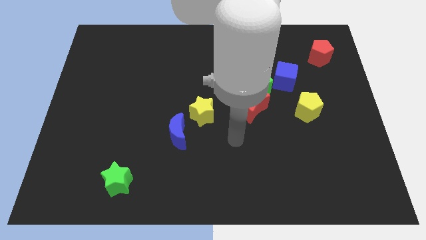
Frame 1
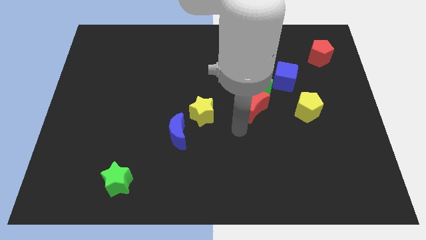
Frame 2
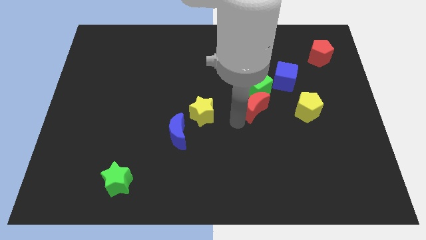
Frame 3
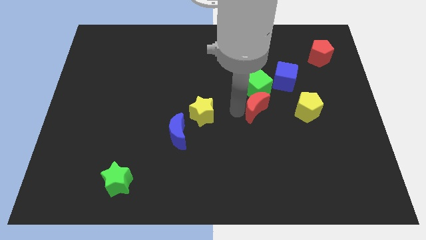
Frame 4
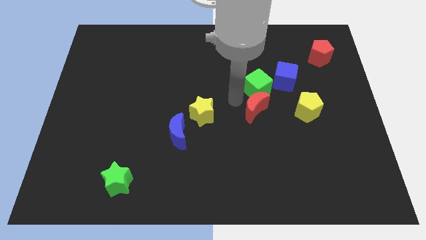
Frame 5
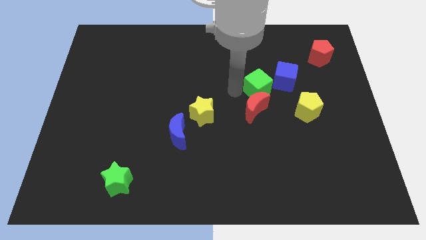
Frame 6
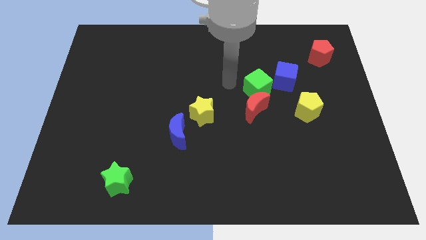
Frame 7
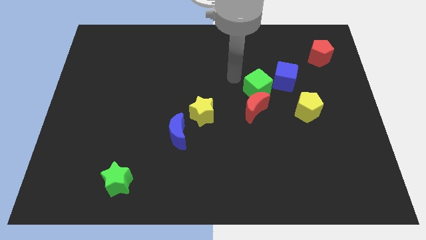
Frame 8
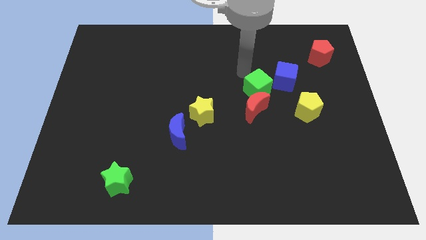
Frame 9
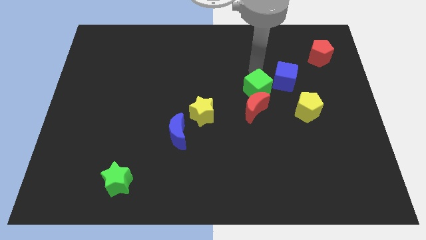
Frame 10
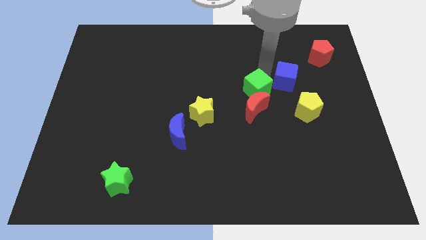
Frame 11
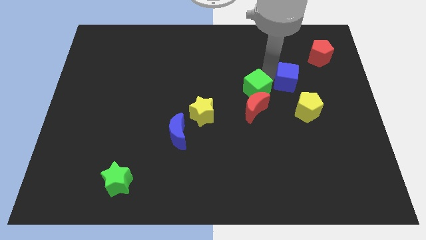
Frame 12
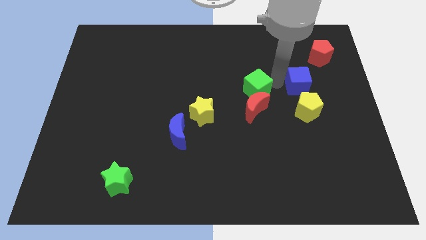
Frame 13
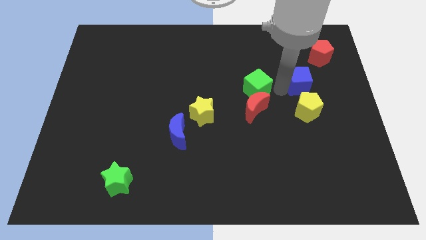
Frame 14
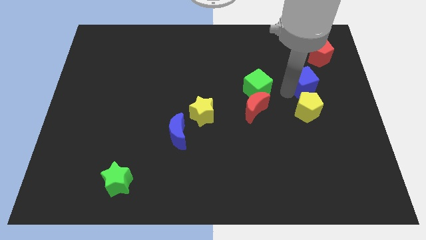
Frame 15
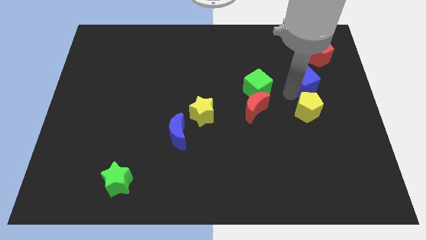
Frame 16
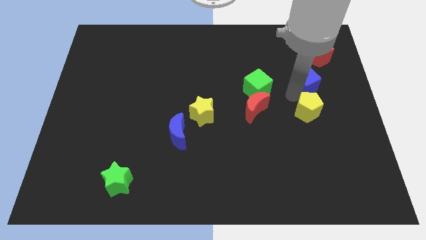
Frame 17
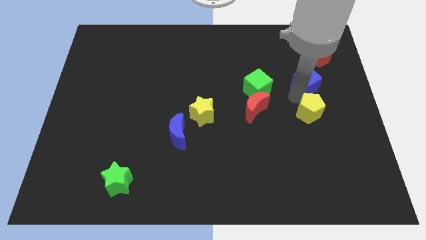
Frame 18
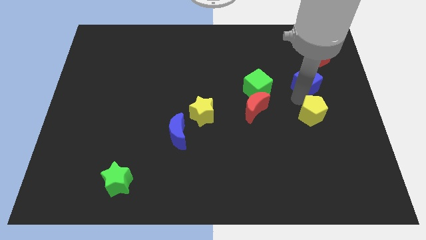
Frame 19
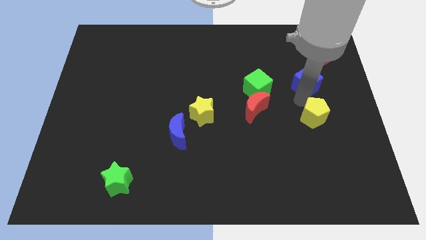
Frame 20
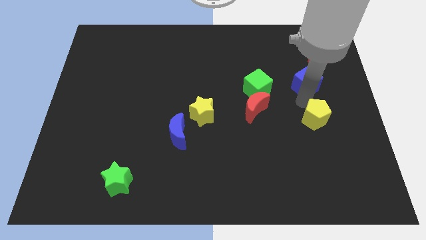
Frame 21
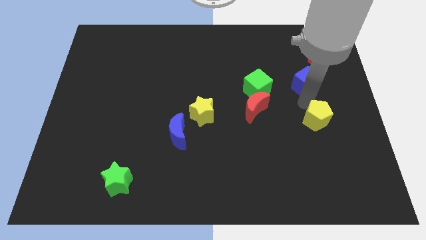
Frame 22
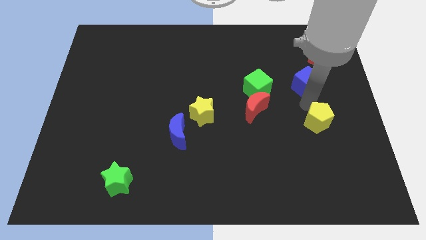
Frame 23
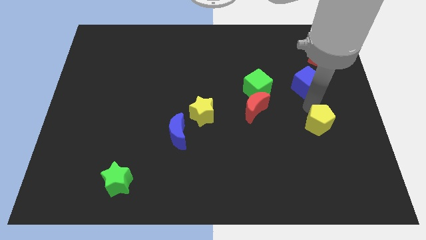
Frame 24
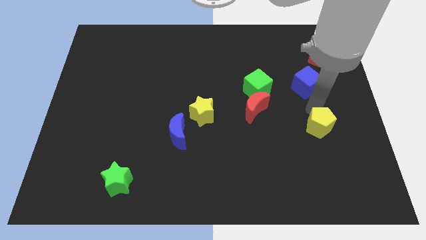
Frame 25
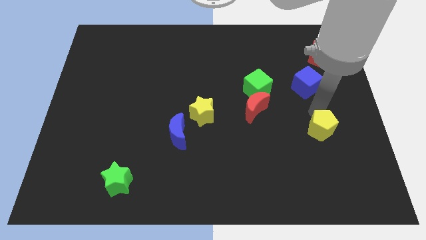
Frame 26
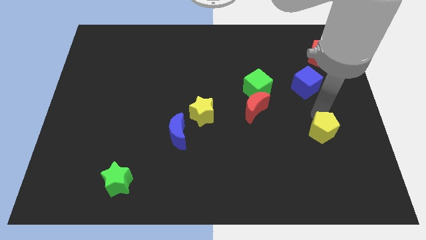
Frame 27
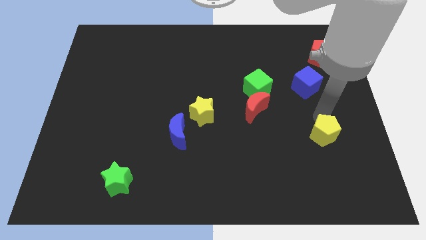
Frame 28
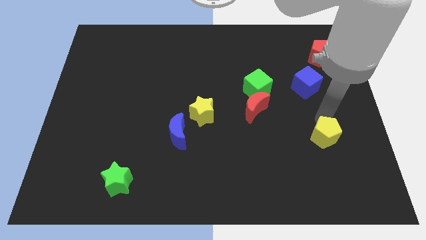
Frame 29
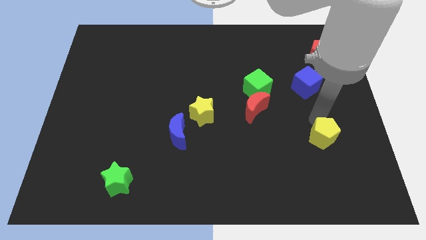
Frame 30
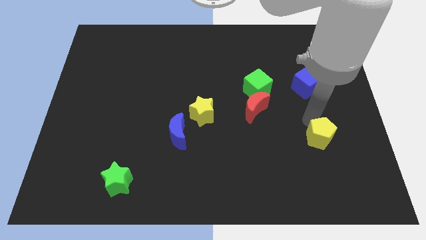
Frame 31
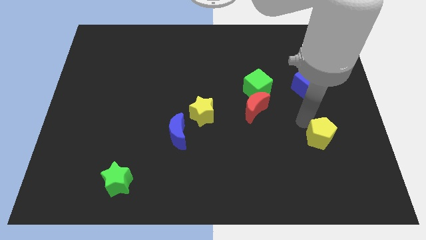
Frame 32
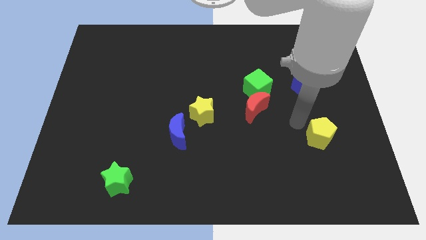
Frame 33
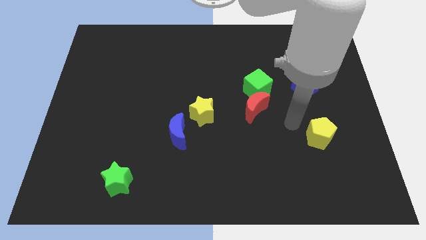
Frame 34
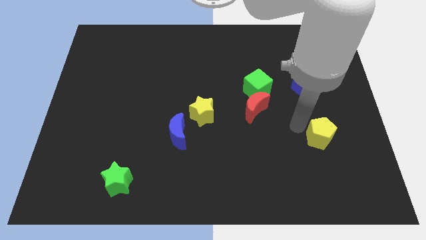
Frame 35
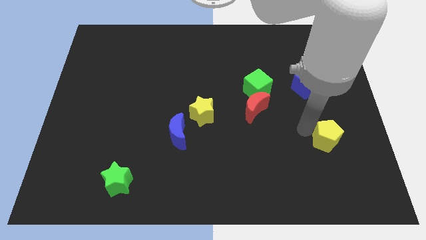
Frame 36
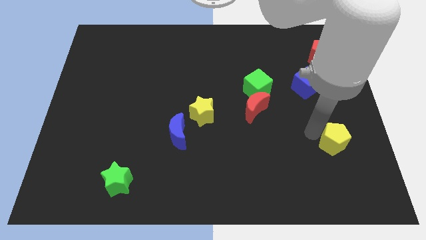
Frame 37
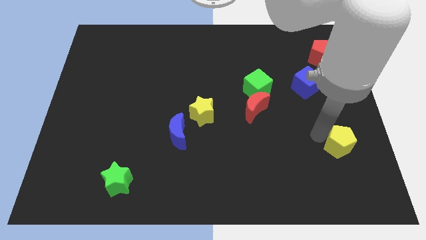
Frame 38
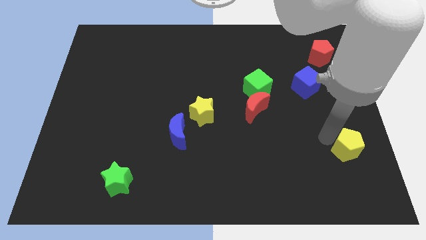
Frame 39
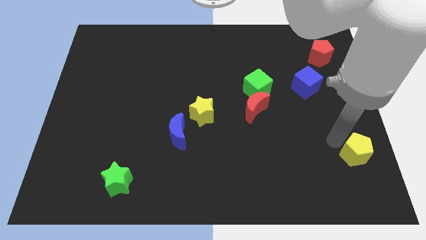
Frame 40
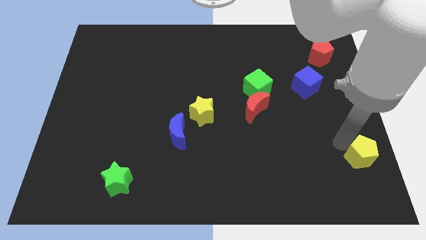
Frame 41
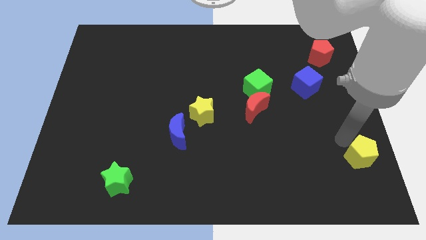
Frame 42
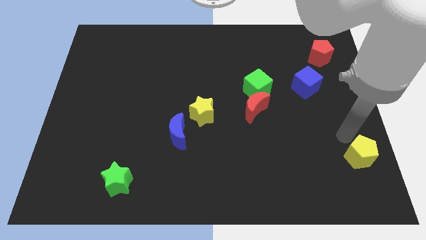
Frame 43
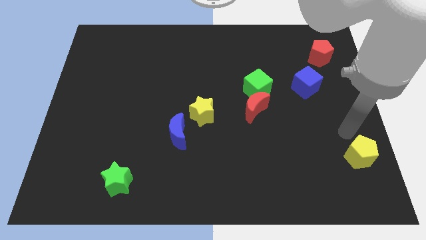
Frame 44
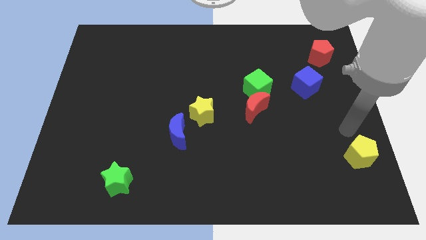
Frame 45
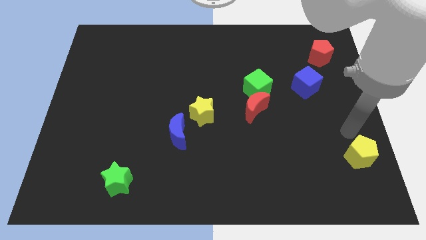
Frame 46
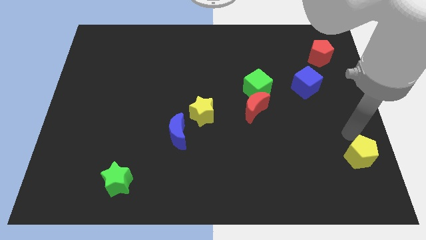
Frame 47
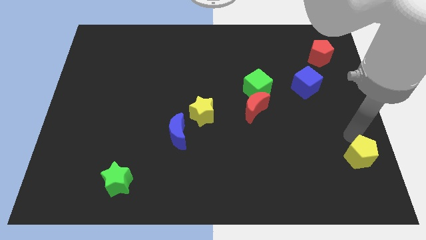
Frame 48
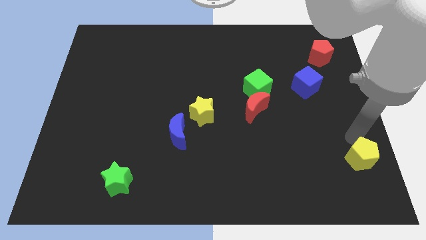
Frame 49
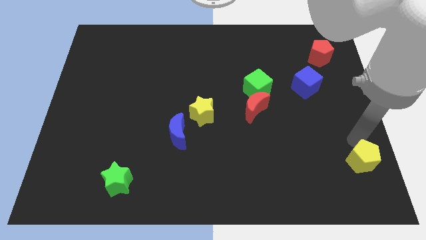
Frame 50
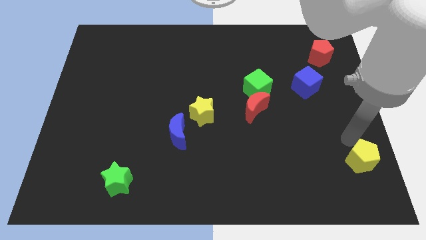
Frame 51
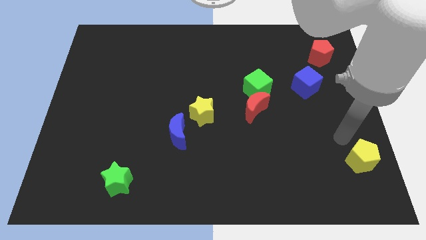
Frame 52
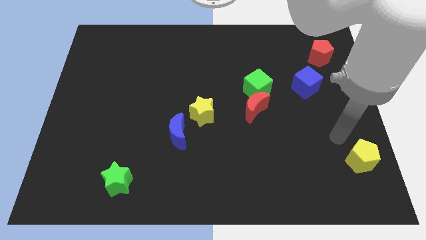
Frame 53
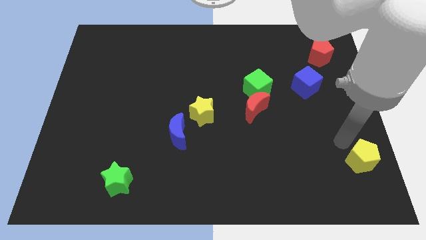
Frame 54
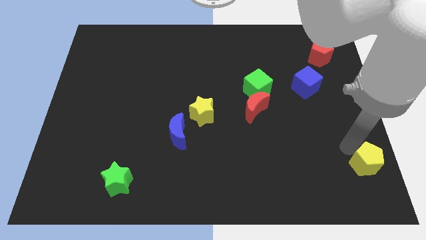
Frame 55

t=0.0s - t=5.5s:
push the yellow pentagon to the lower right corner

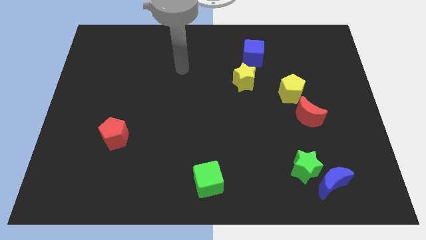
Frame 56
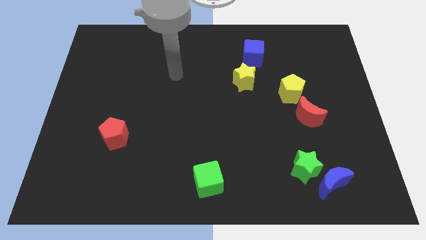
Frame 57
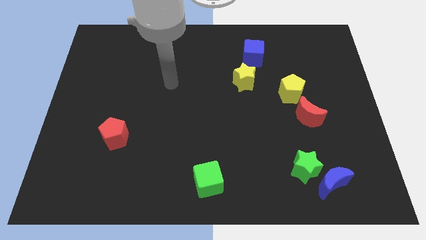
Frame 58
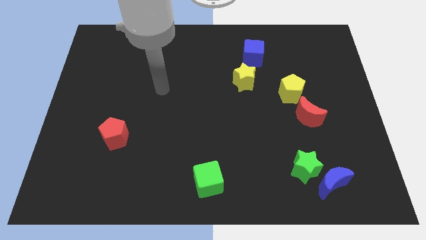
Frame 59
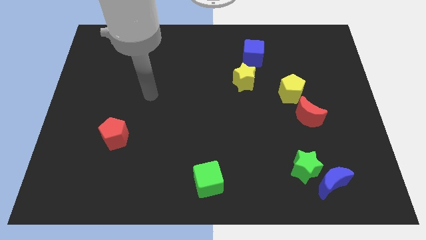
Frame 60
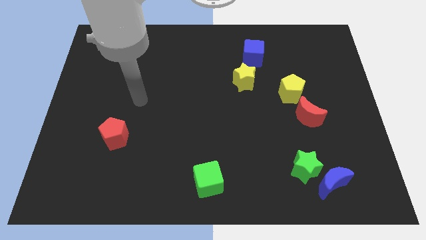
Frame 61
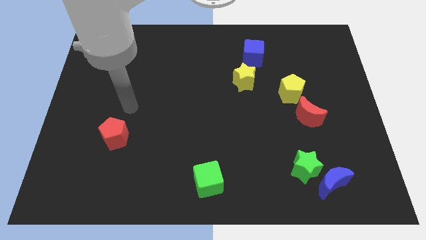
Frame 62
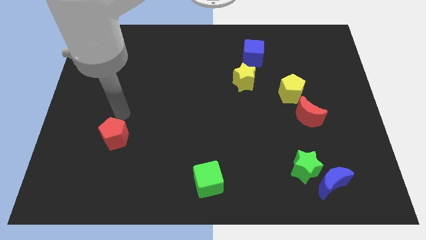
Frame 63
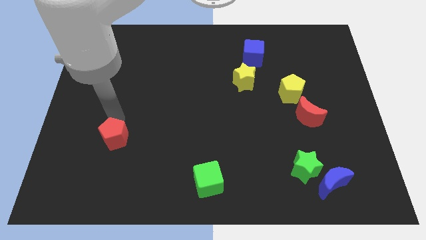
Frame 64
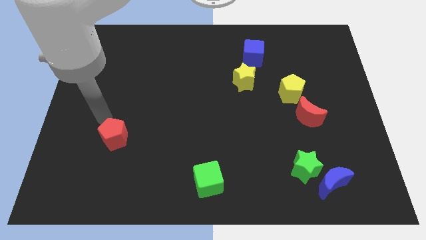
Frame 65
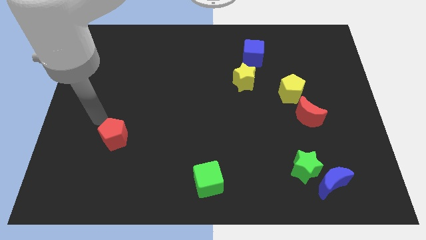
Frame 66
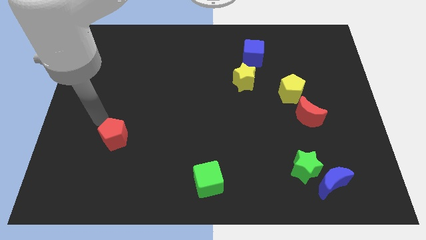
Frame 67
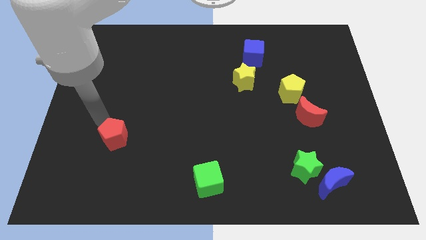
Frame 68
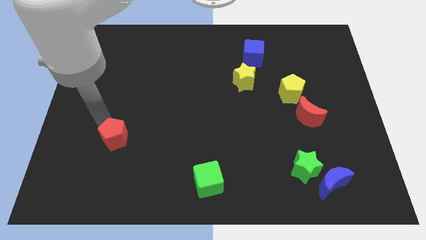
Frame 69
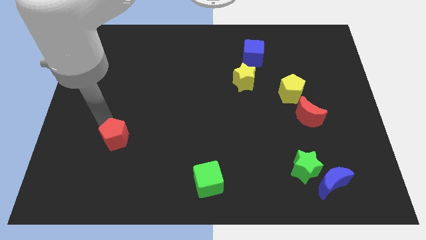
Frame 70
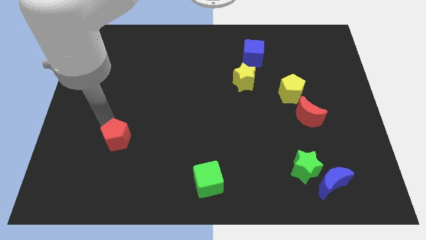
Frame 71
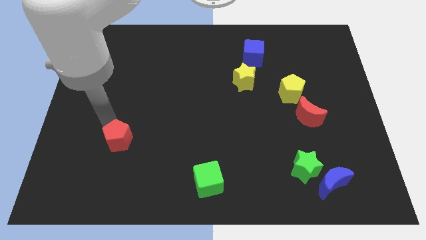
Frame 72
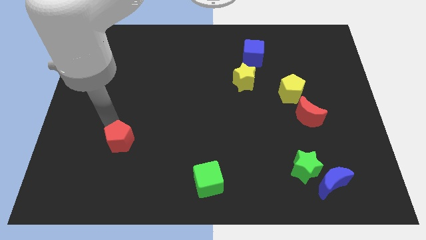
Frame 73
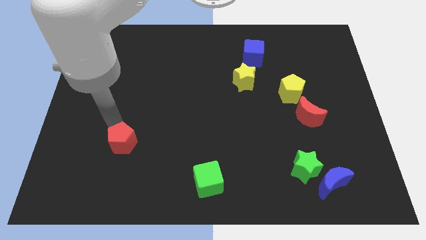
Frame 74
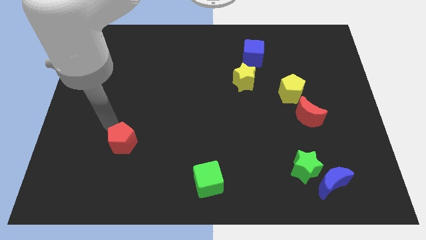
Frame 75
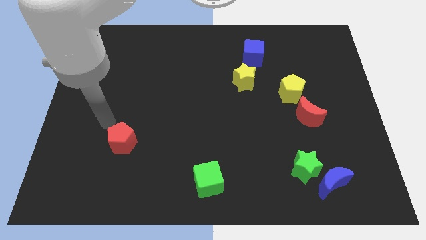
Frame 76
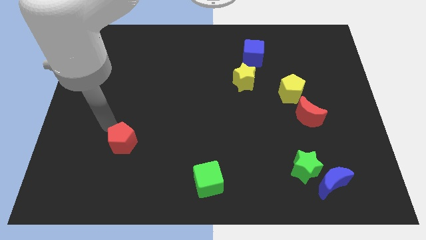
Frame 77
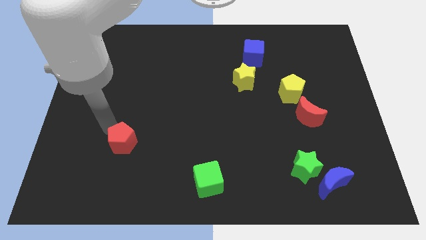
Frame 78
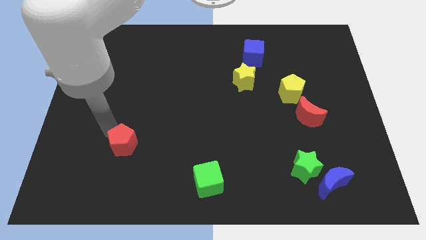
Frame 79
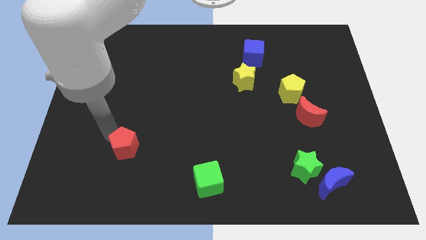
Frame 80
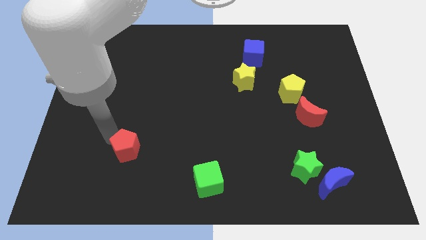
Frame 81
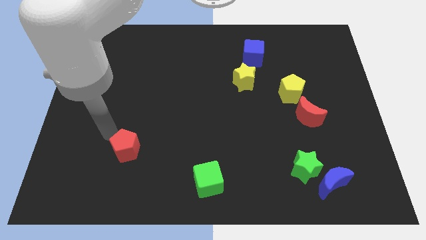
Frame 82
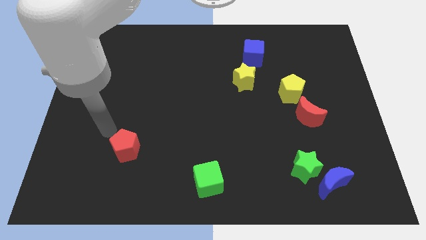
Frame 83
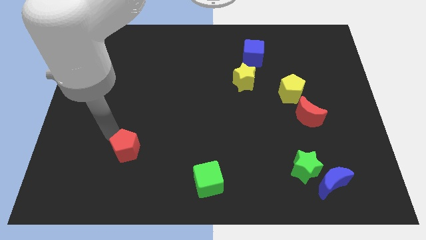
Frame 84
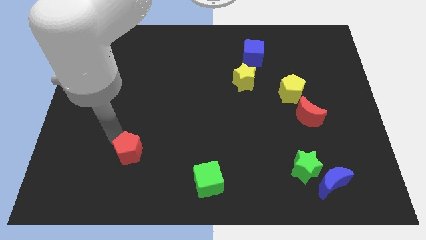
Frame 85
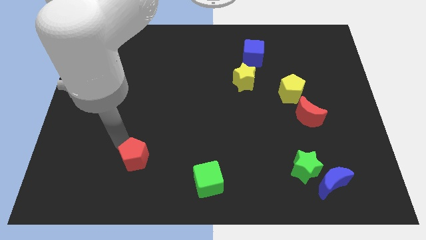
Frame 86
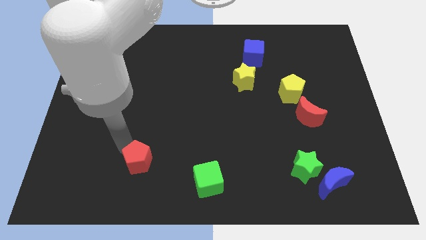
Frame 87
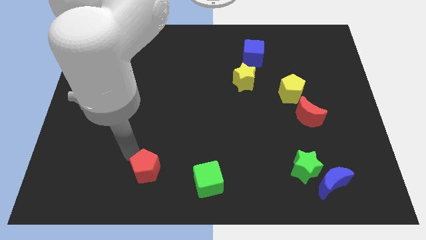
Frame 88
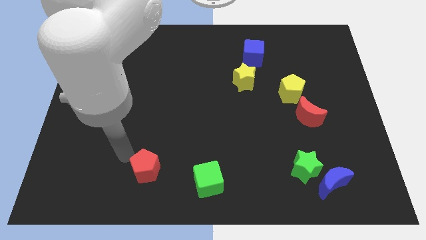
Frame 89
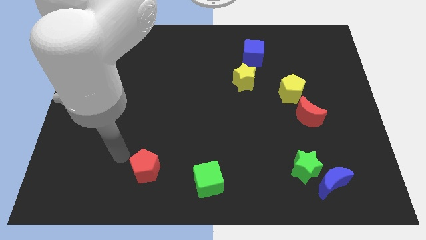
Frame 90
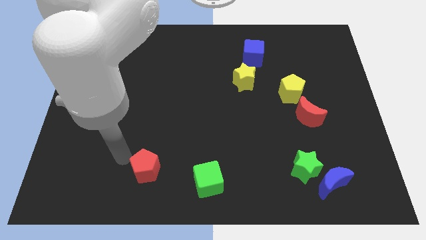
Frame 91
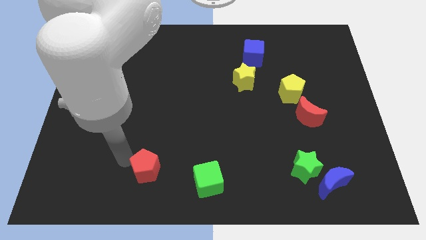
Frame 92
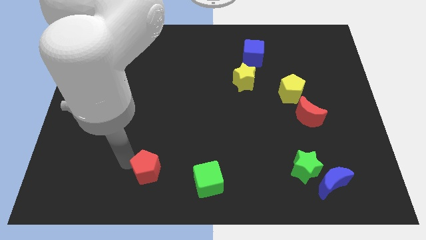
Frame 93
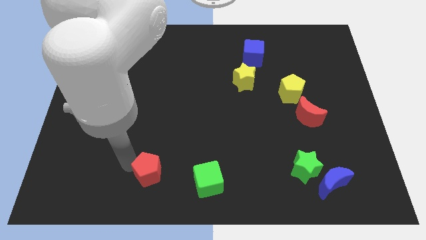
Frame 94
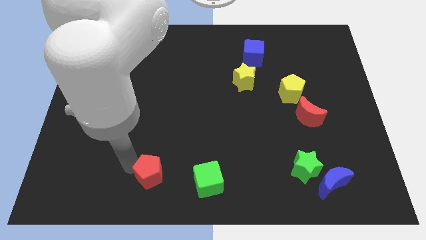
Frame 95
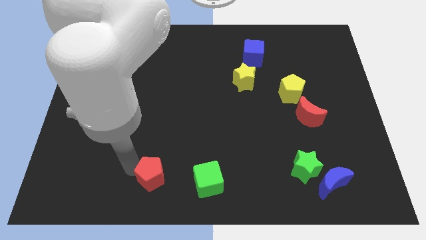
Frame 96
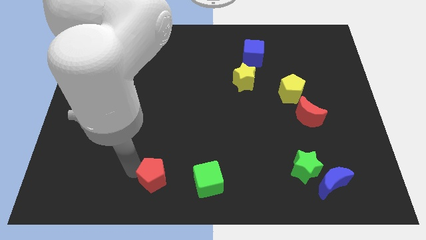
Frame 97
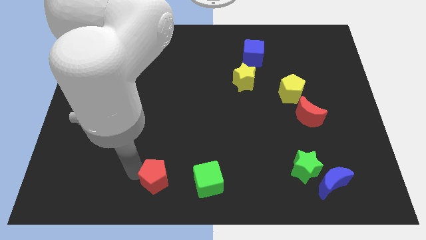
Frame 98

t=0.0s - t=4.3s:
push the red pentagon to the bottom side
